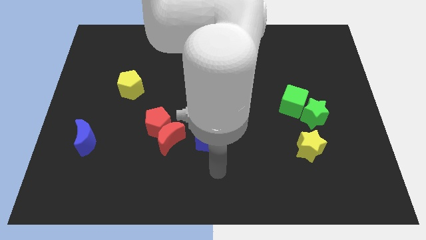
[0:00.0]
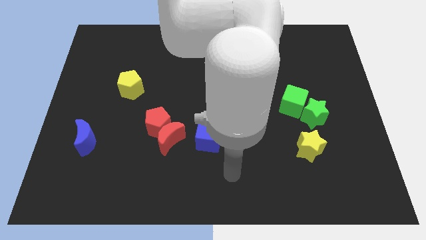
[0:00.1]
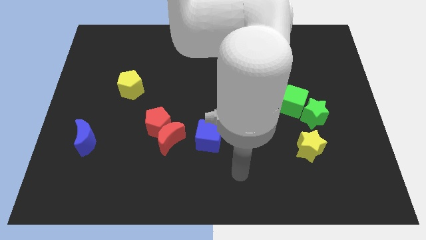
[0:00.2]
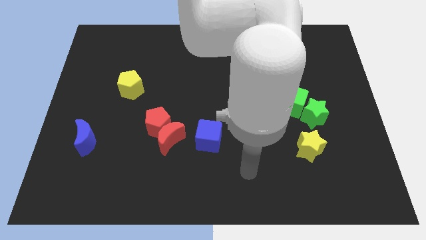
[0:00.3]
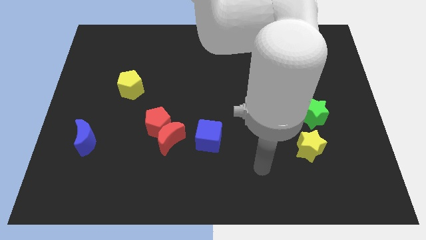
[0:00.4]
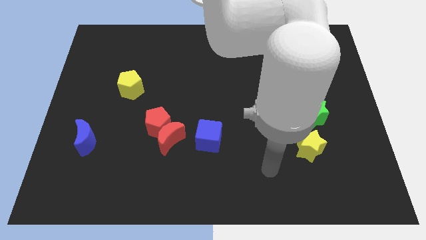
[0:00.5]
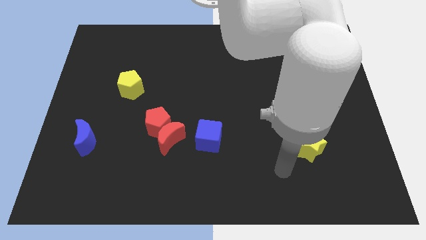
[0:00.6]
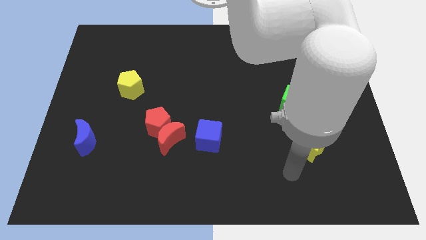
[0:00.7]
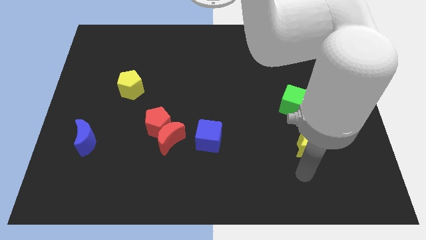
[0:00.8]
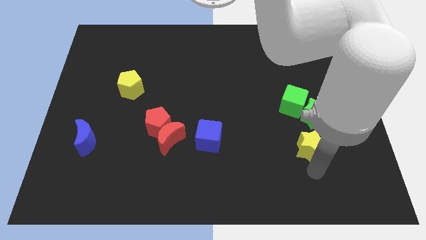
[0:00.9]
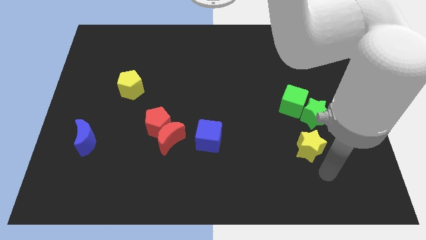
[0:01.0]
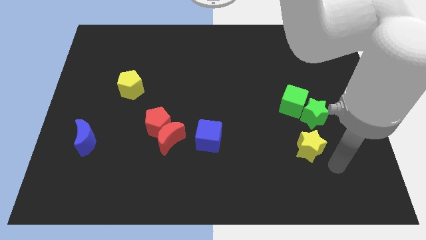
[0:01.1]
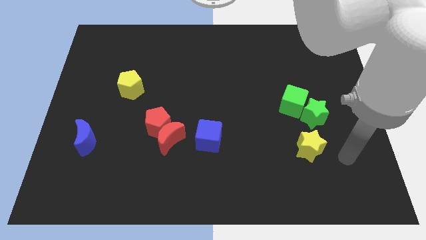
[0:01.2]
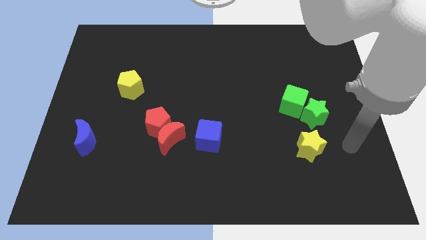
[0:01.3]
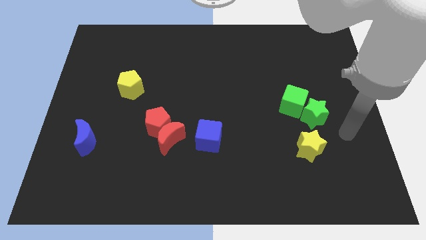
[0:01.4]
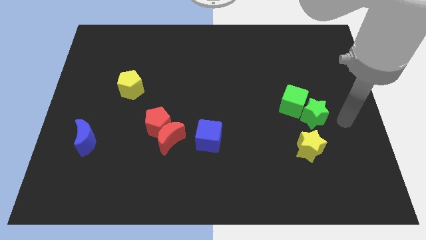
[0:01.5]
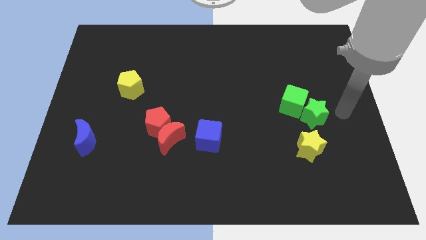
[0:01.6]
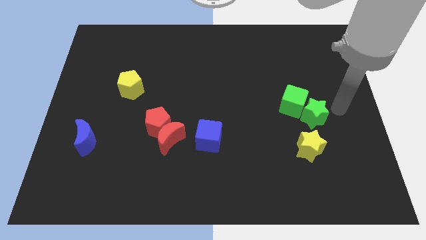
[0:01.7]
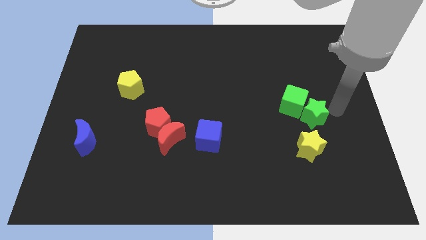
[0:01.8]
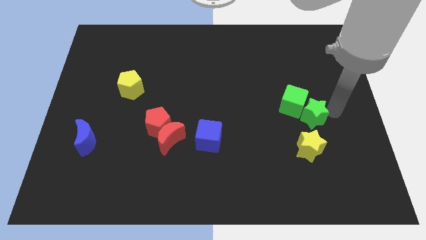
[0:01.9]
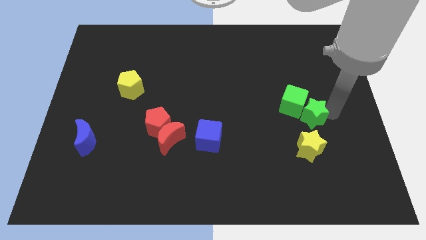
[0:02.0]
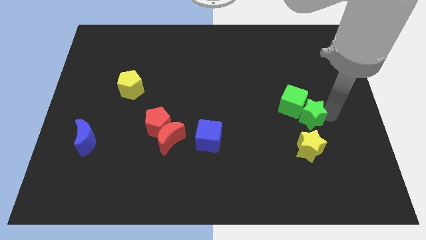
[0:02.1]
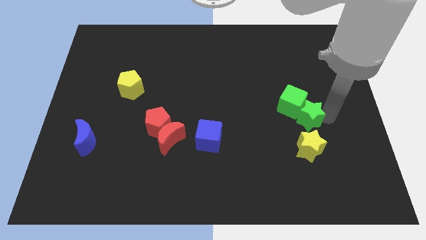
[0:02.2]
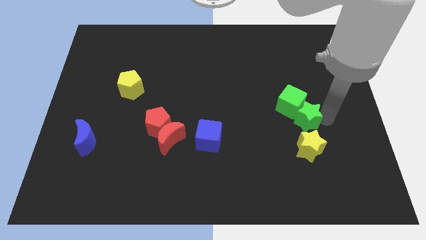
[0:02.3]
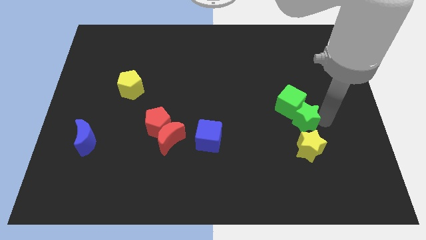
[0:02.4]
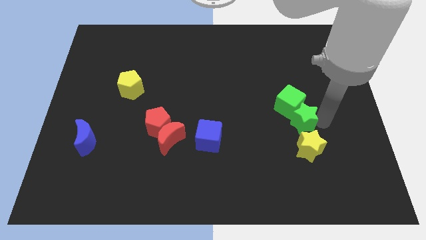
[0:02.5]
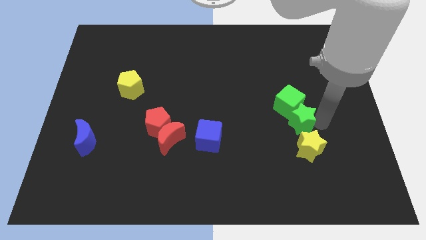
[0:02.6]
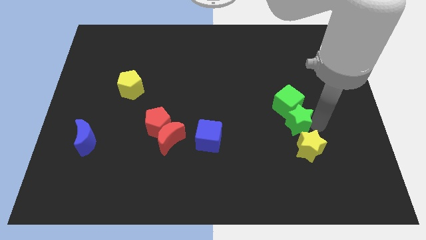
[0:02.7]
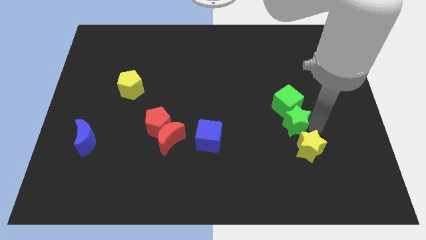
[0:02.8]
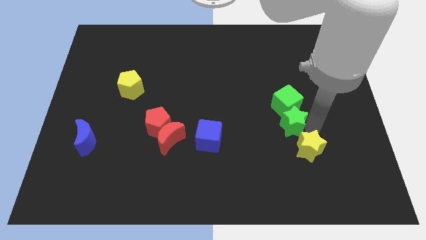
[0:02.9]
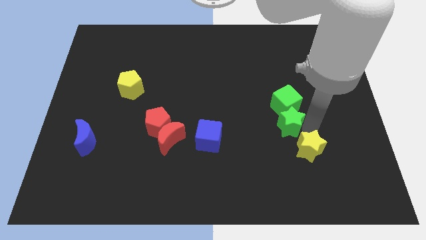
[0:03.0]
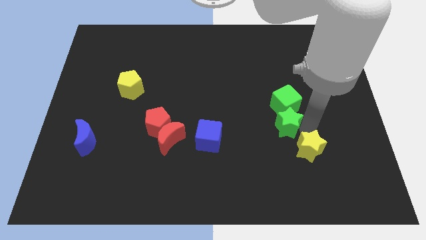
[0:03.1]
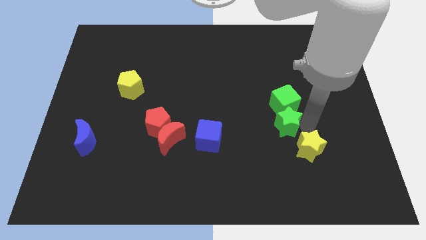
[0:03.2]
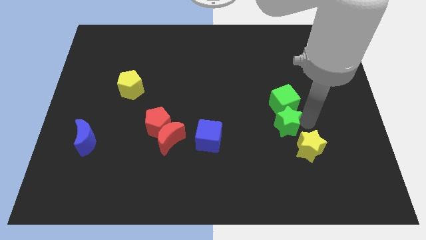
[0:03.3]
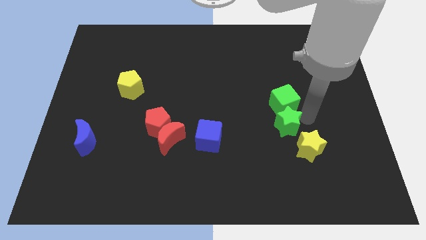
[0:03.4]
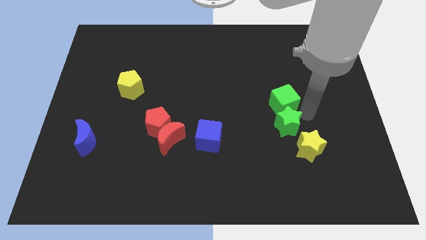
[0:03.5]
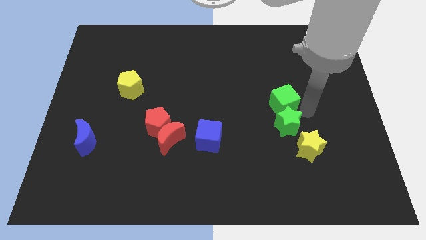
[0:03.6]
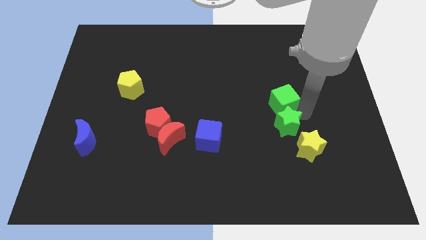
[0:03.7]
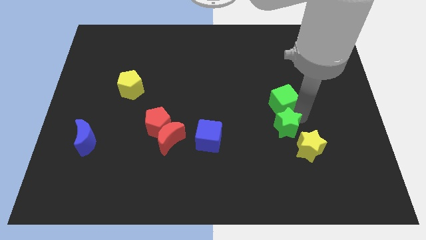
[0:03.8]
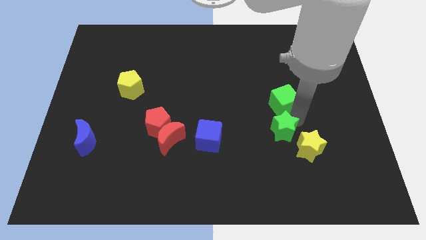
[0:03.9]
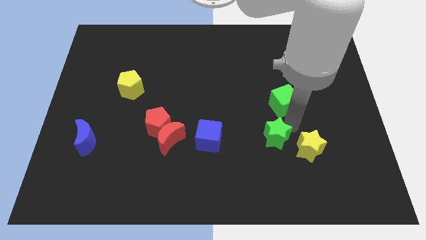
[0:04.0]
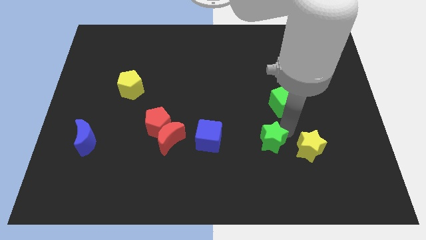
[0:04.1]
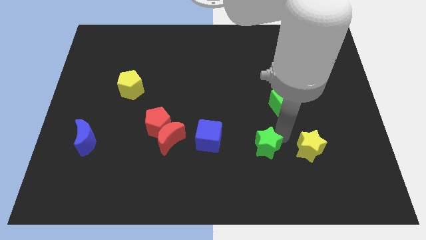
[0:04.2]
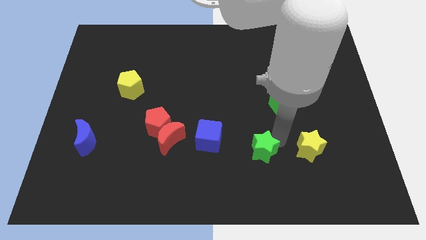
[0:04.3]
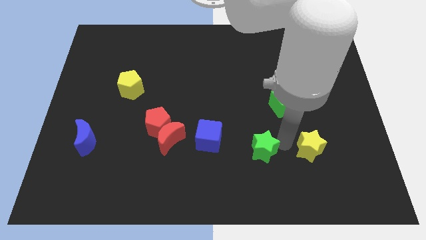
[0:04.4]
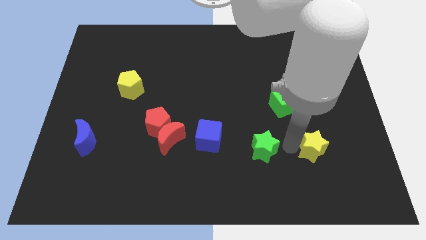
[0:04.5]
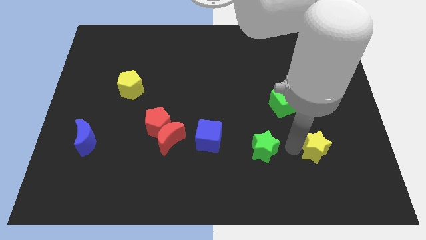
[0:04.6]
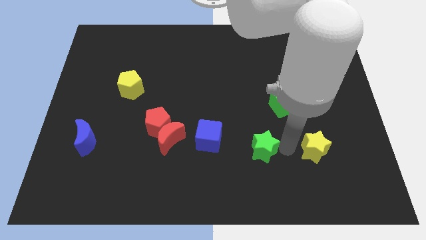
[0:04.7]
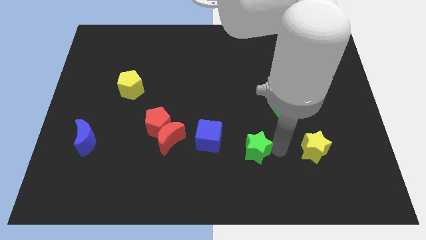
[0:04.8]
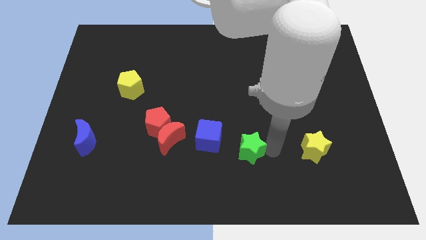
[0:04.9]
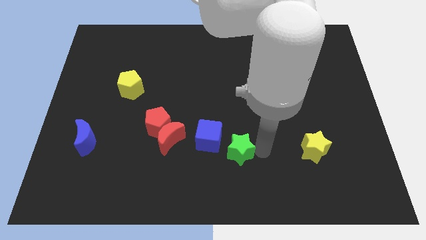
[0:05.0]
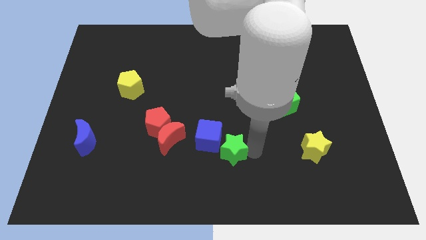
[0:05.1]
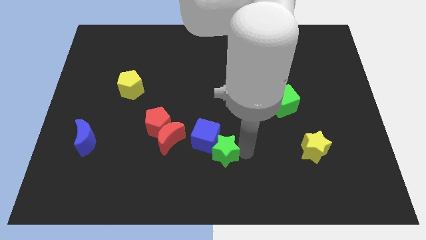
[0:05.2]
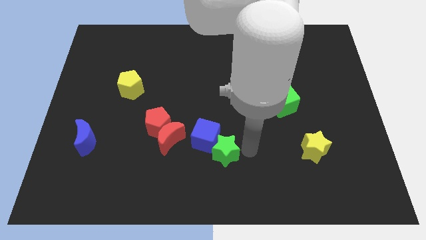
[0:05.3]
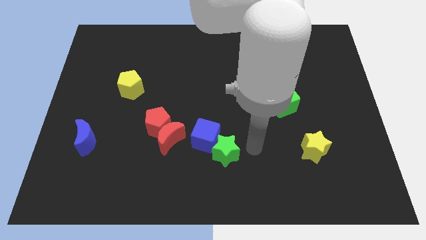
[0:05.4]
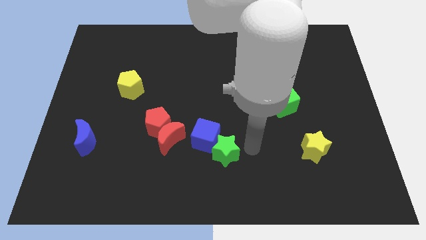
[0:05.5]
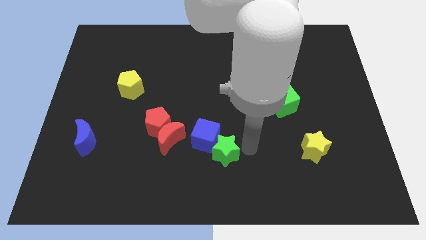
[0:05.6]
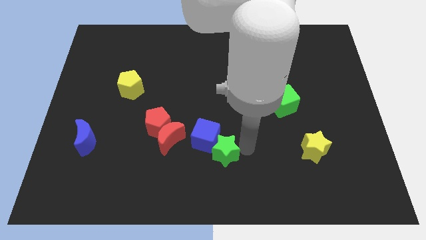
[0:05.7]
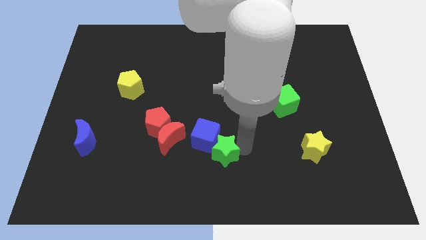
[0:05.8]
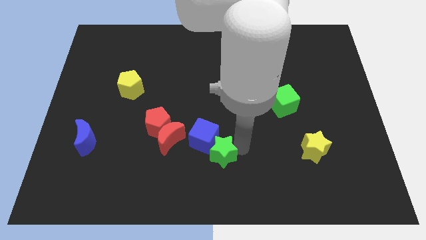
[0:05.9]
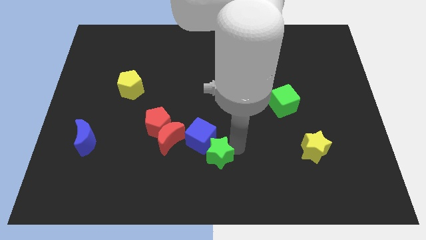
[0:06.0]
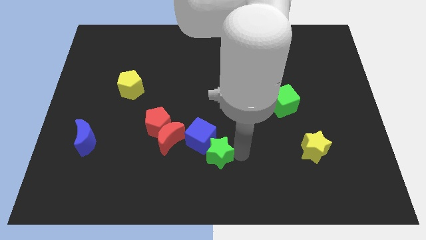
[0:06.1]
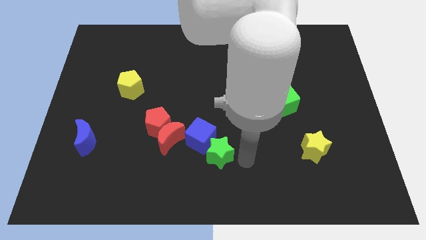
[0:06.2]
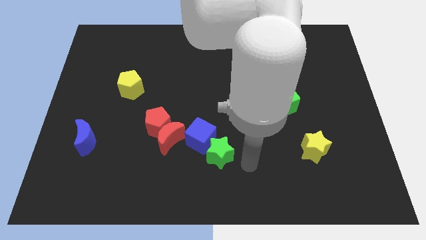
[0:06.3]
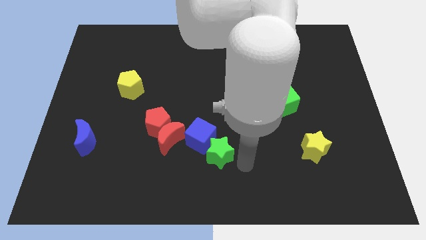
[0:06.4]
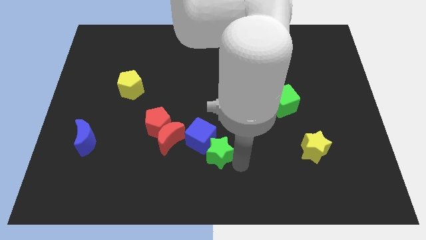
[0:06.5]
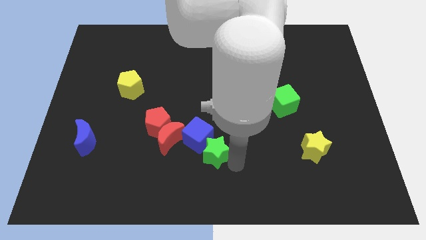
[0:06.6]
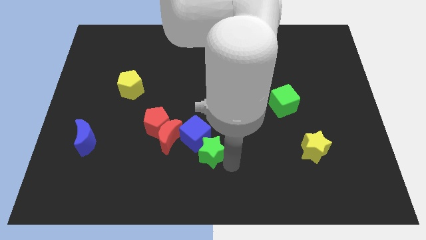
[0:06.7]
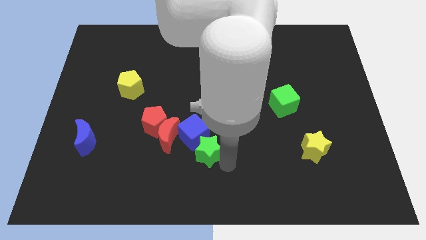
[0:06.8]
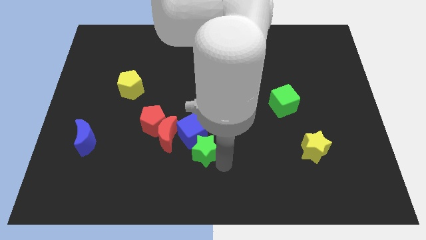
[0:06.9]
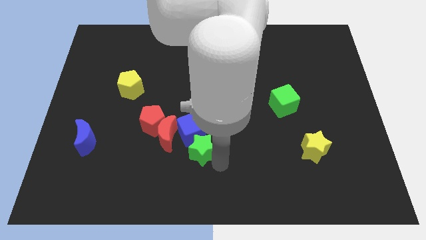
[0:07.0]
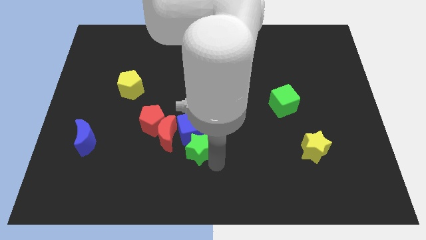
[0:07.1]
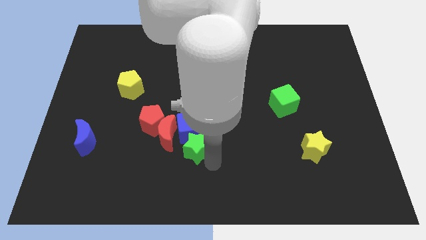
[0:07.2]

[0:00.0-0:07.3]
move the green star to the bottom right of the red pentagon
